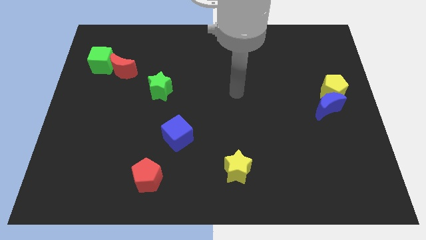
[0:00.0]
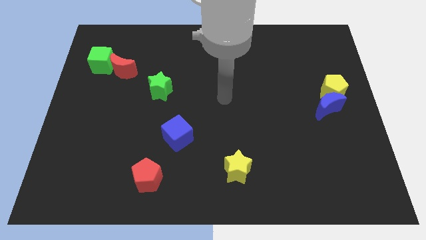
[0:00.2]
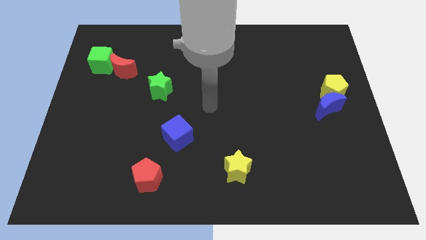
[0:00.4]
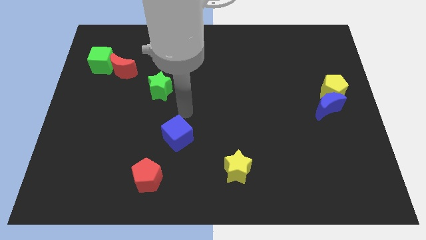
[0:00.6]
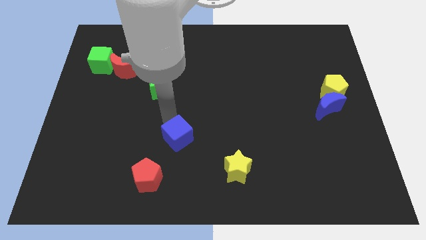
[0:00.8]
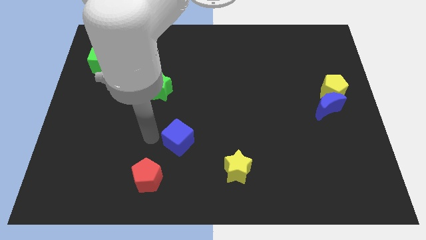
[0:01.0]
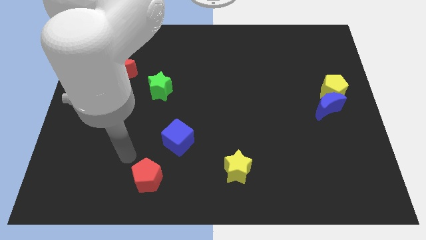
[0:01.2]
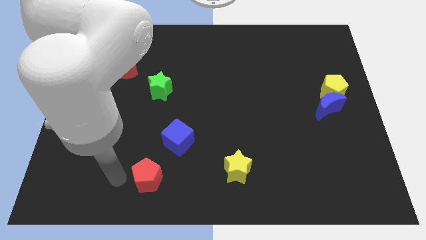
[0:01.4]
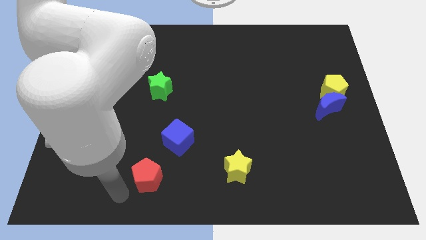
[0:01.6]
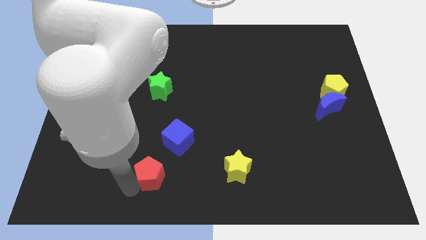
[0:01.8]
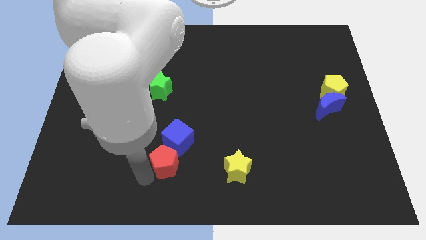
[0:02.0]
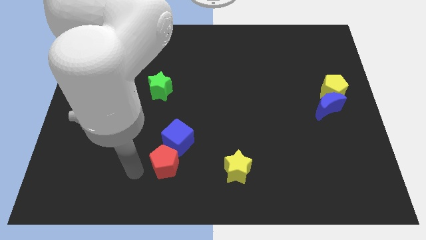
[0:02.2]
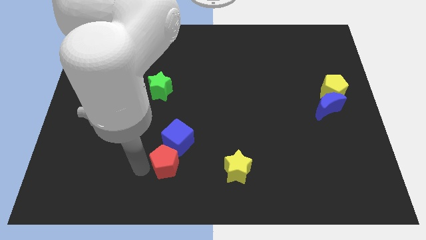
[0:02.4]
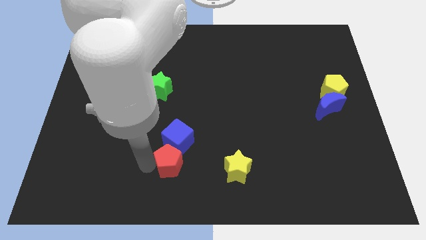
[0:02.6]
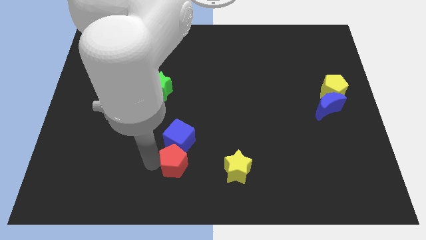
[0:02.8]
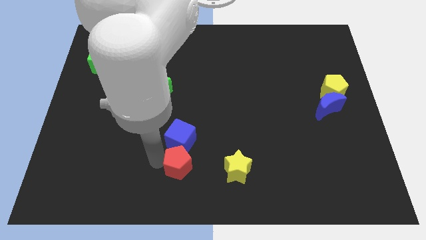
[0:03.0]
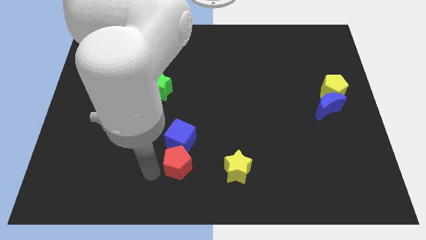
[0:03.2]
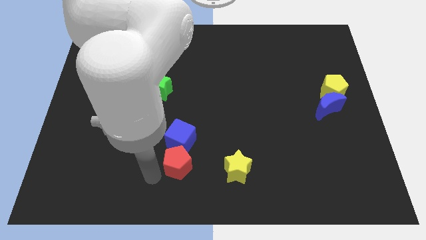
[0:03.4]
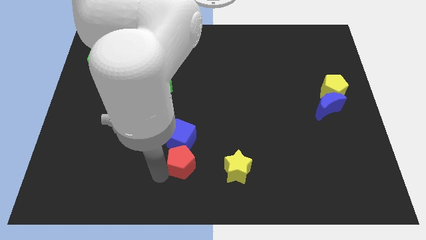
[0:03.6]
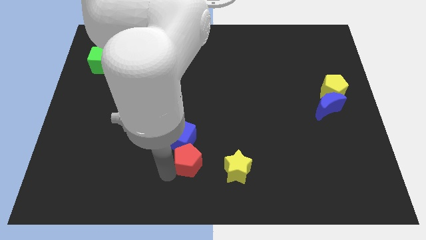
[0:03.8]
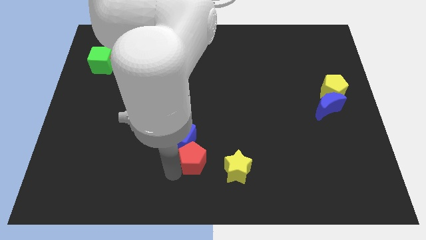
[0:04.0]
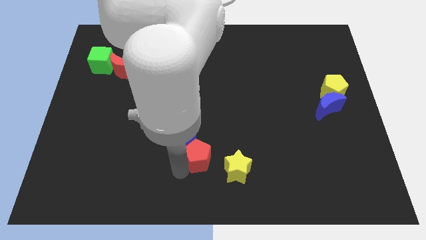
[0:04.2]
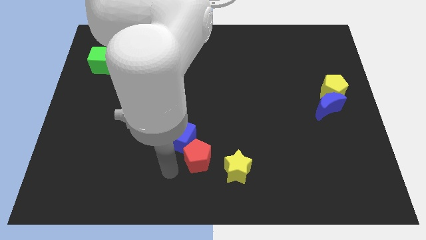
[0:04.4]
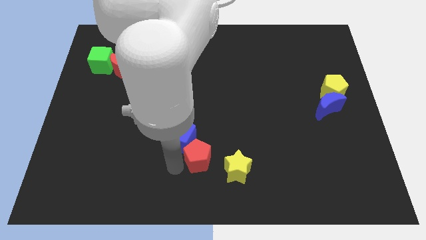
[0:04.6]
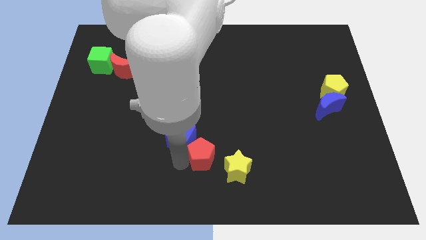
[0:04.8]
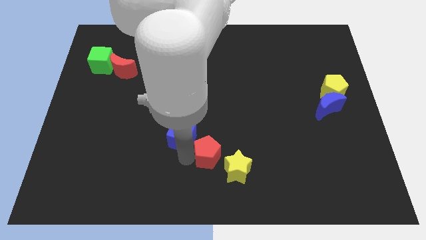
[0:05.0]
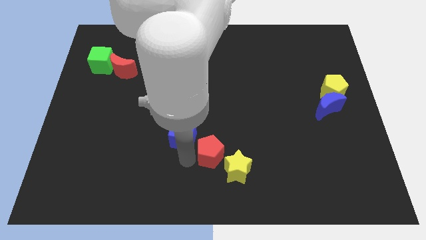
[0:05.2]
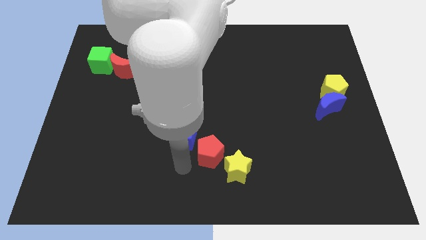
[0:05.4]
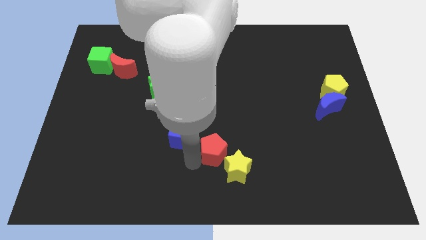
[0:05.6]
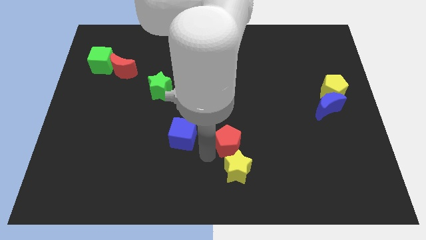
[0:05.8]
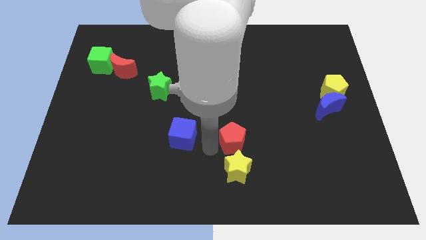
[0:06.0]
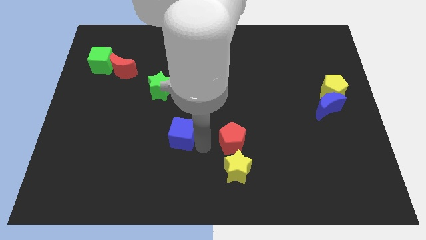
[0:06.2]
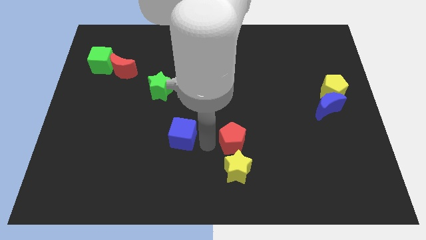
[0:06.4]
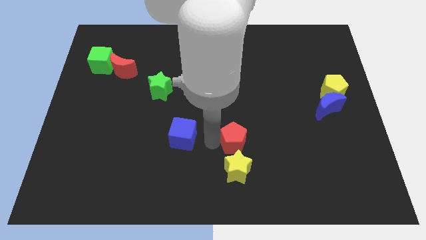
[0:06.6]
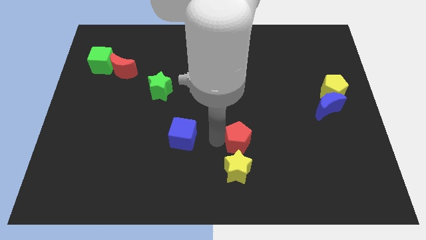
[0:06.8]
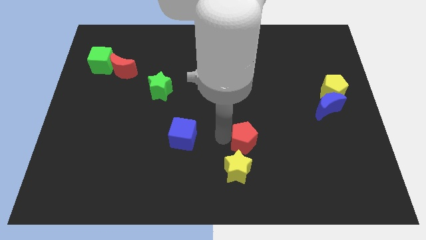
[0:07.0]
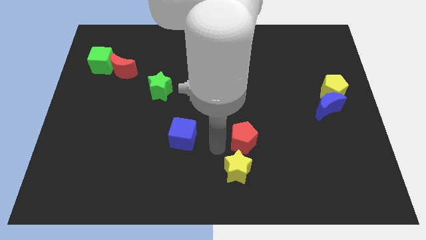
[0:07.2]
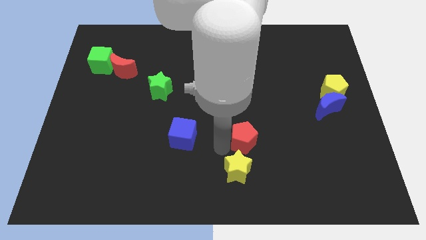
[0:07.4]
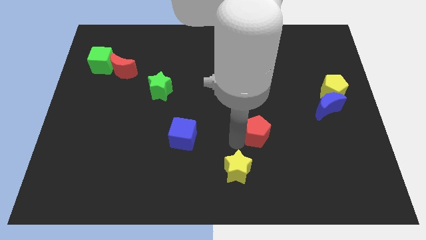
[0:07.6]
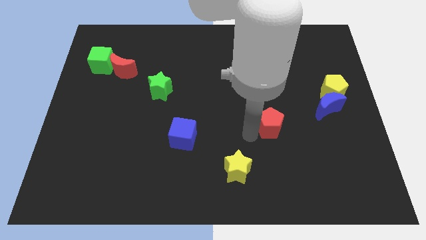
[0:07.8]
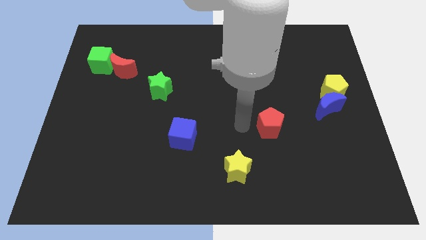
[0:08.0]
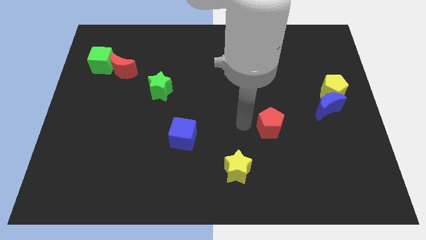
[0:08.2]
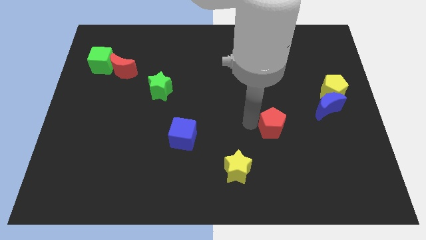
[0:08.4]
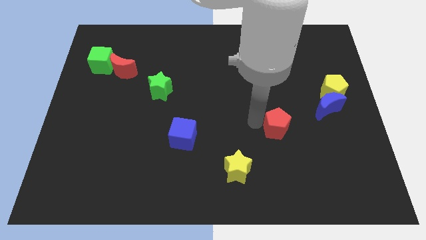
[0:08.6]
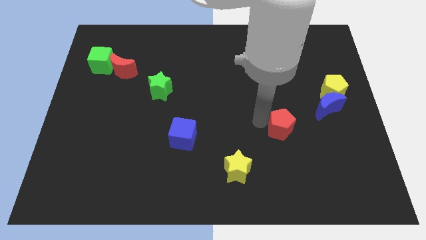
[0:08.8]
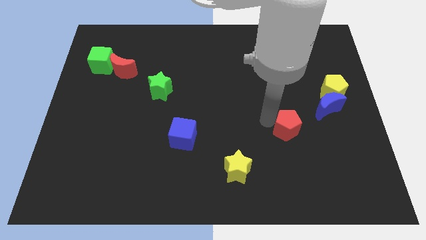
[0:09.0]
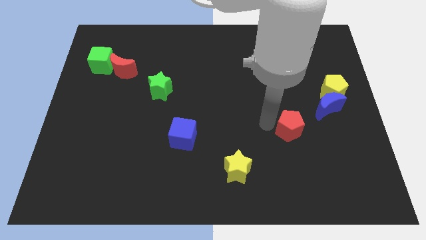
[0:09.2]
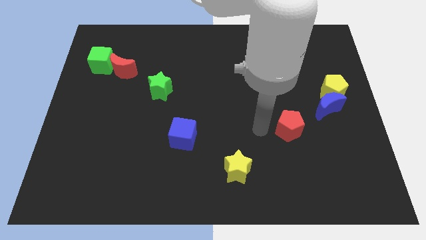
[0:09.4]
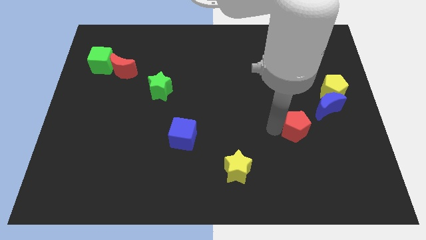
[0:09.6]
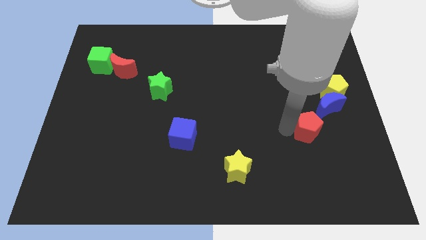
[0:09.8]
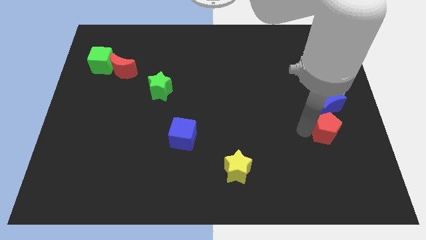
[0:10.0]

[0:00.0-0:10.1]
put the red pentagon to the bottom of the yellow pentagon

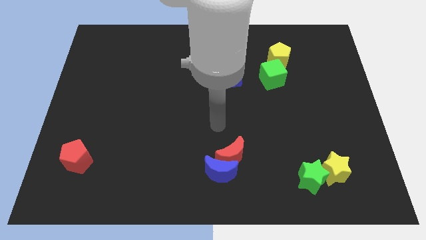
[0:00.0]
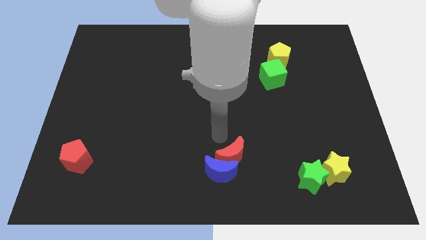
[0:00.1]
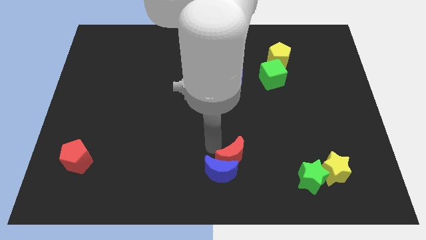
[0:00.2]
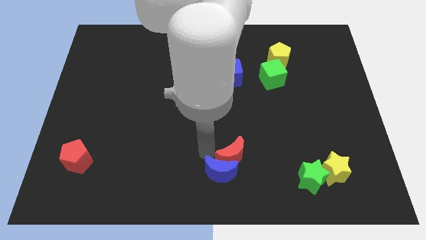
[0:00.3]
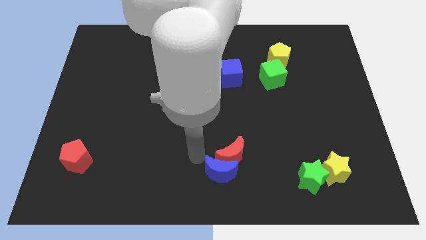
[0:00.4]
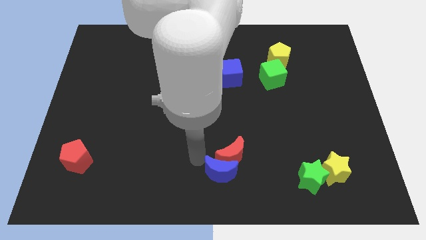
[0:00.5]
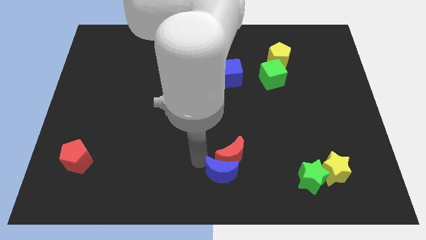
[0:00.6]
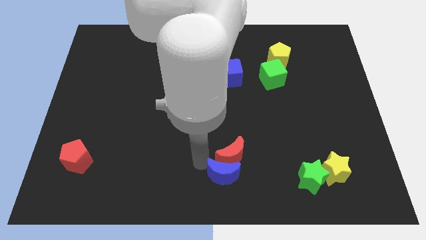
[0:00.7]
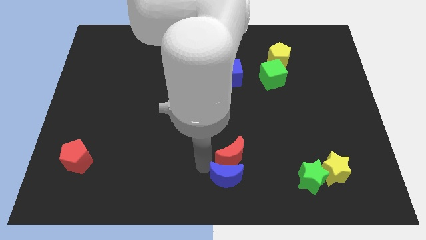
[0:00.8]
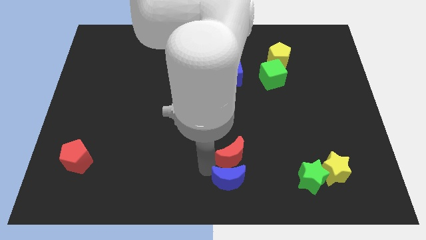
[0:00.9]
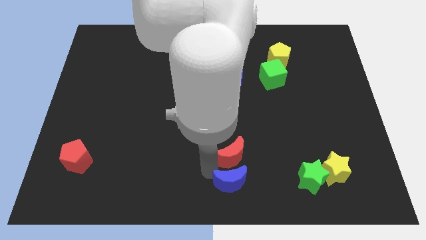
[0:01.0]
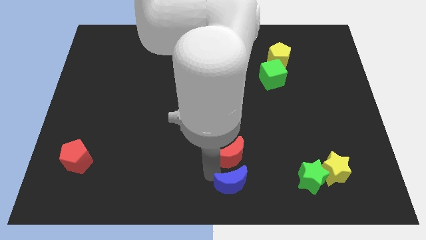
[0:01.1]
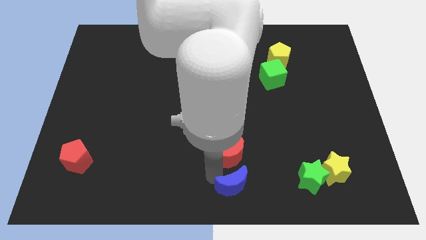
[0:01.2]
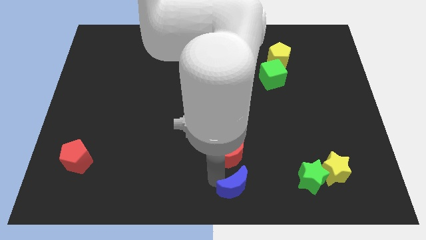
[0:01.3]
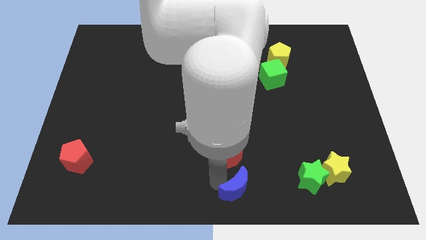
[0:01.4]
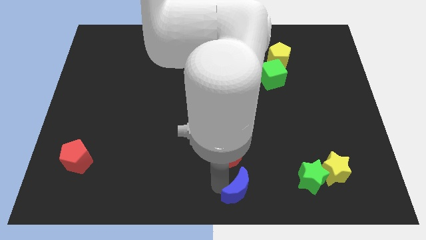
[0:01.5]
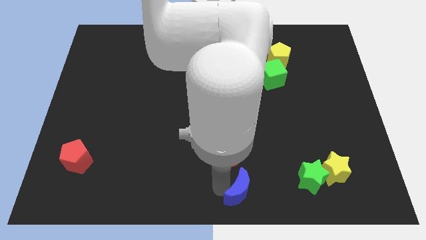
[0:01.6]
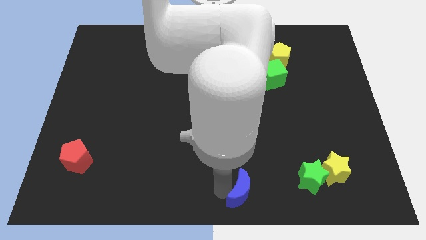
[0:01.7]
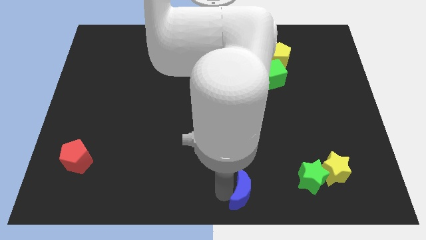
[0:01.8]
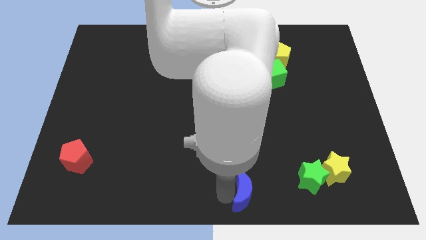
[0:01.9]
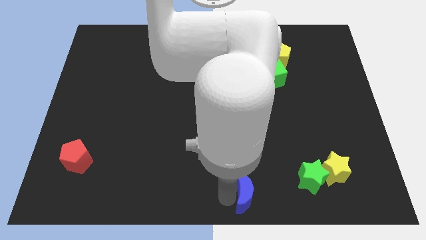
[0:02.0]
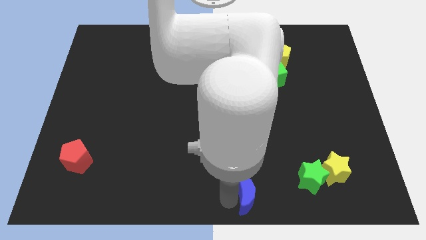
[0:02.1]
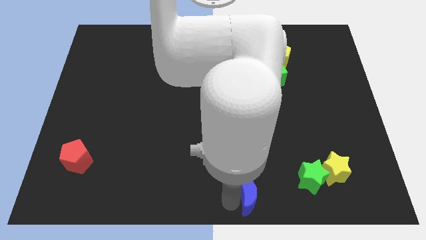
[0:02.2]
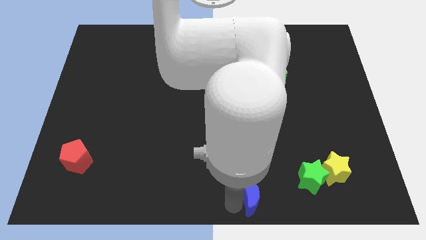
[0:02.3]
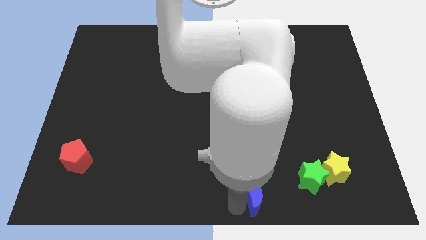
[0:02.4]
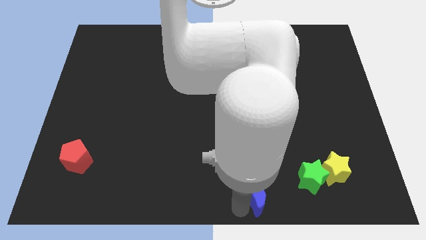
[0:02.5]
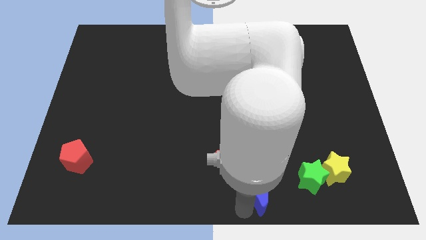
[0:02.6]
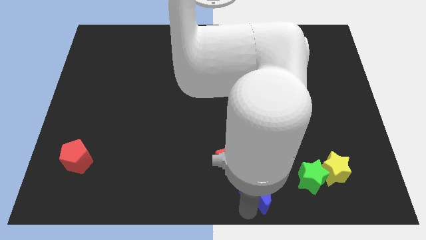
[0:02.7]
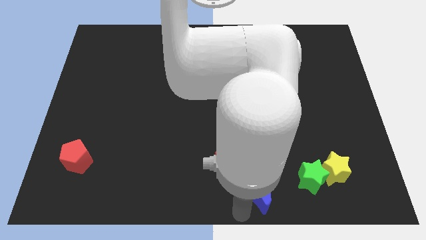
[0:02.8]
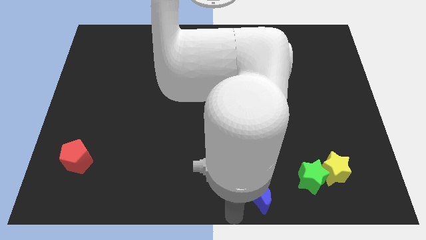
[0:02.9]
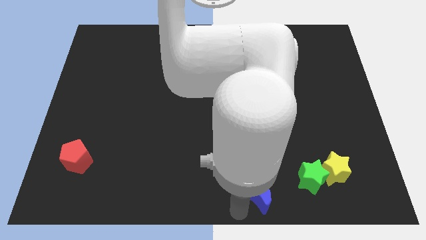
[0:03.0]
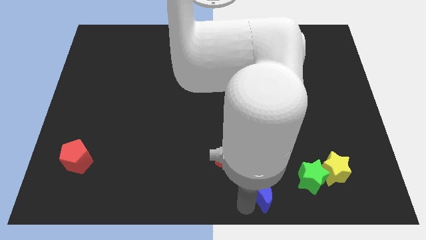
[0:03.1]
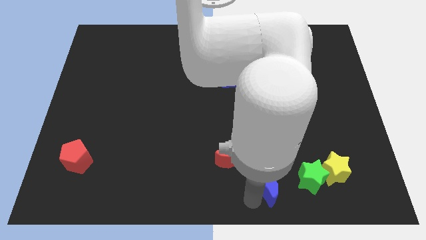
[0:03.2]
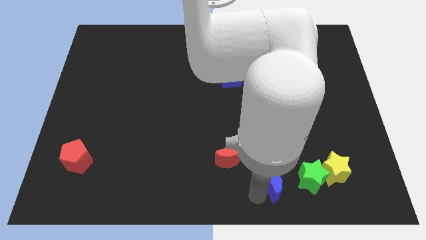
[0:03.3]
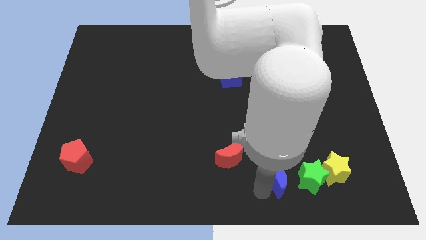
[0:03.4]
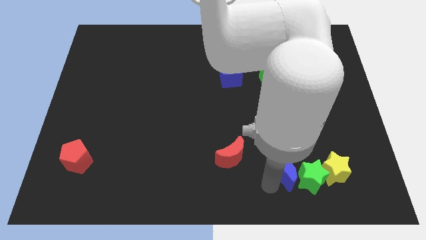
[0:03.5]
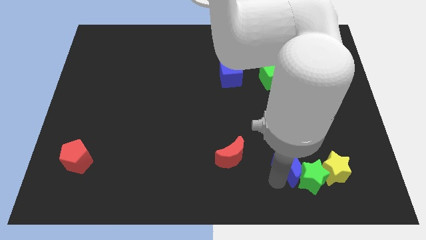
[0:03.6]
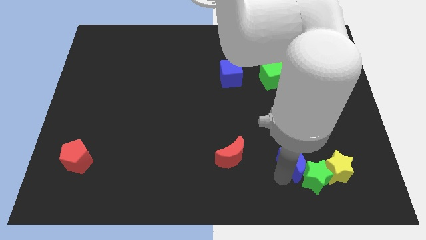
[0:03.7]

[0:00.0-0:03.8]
move the blue moon to the top side of the green star
